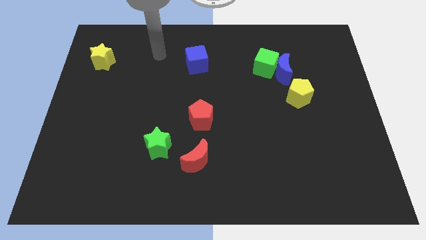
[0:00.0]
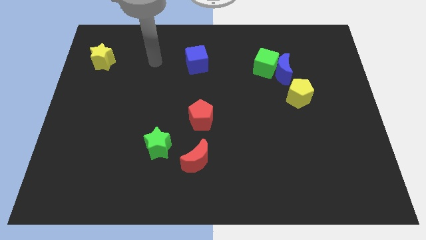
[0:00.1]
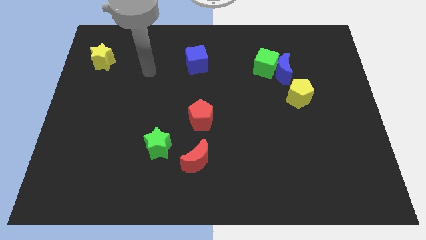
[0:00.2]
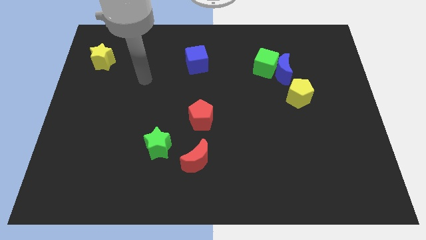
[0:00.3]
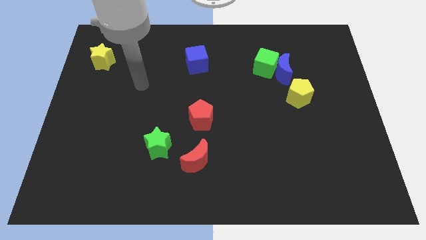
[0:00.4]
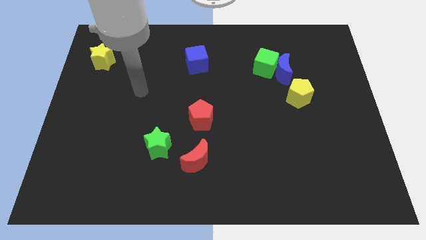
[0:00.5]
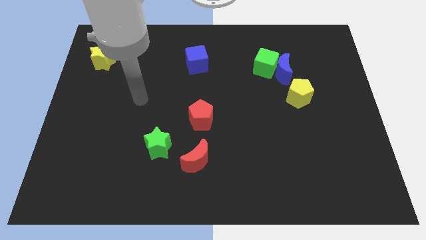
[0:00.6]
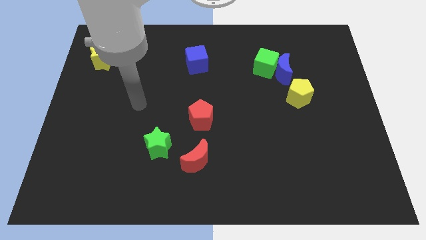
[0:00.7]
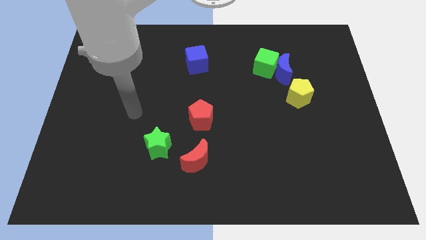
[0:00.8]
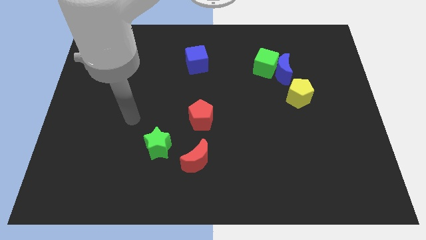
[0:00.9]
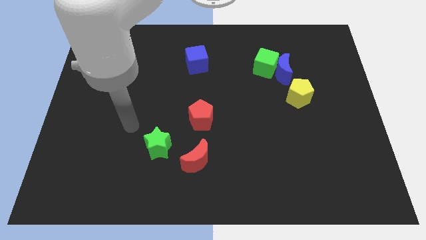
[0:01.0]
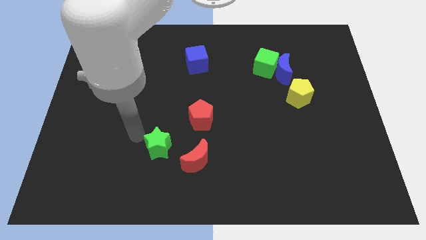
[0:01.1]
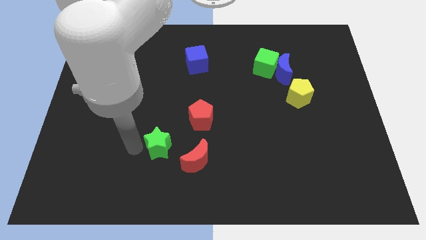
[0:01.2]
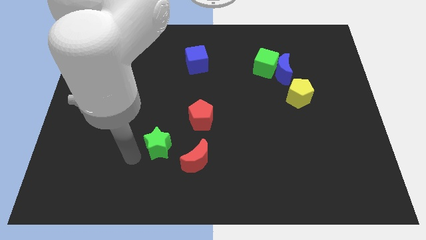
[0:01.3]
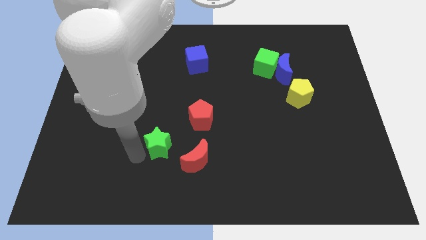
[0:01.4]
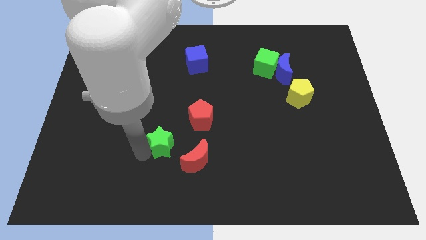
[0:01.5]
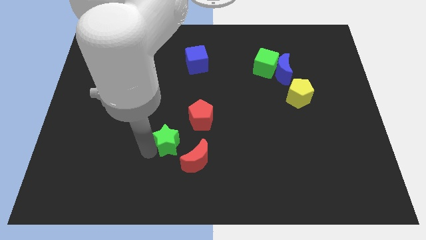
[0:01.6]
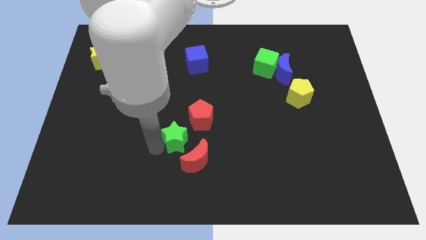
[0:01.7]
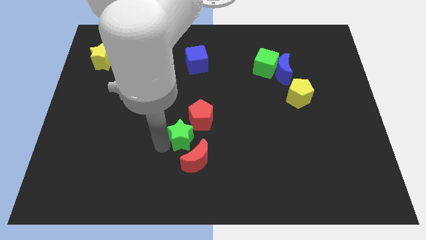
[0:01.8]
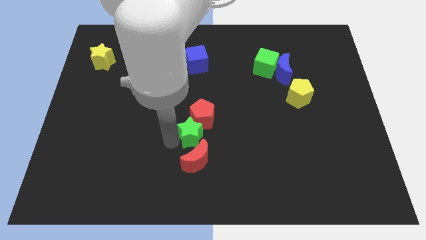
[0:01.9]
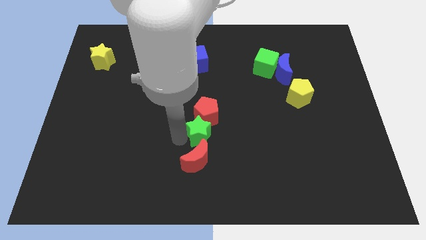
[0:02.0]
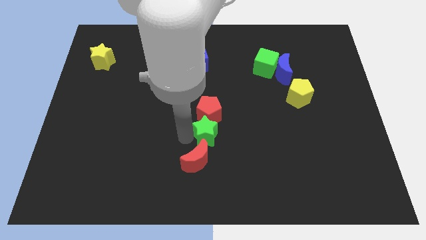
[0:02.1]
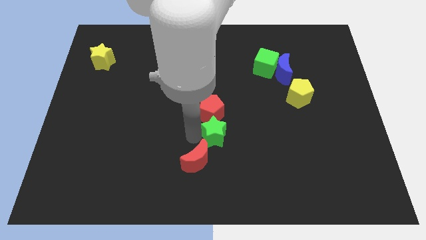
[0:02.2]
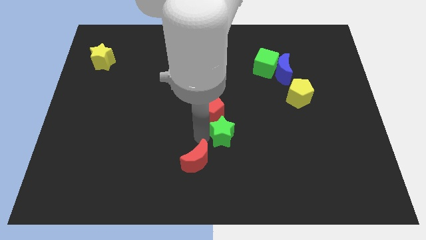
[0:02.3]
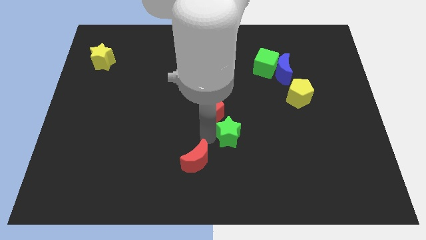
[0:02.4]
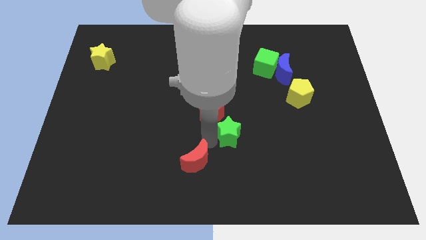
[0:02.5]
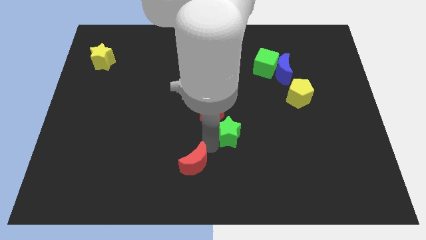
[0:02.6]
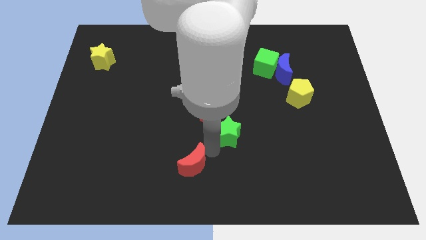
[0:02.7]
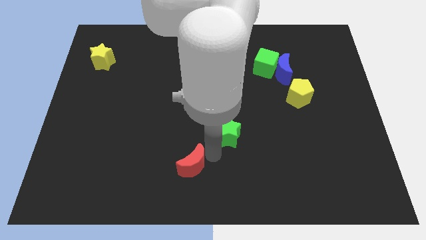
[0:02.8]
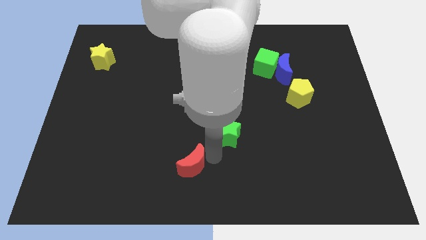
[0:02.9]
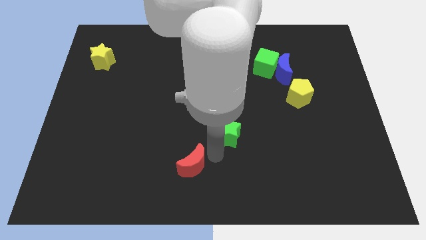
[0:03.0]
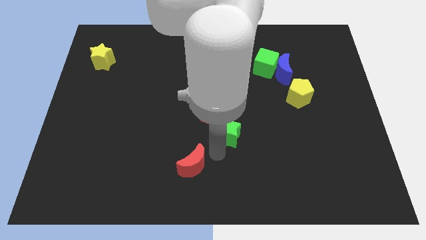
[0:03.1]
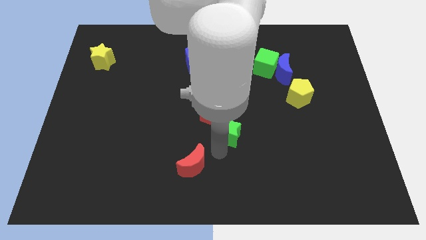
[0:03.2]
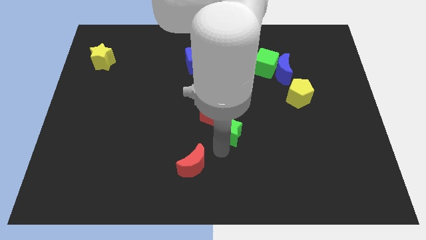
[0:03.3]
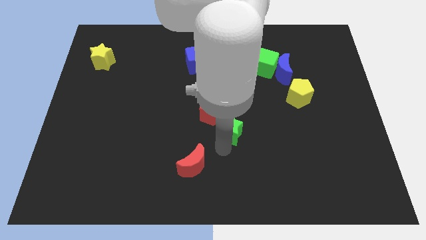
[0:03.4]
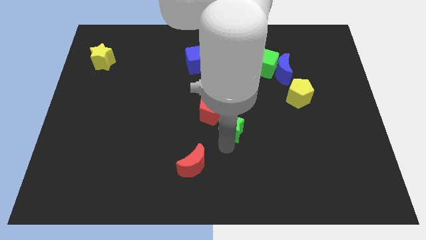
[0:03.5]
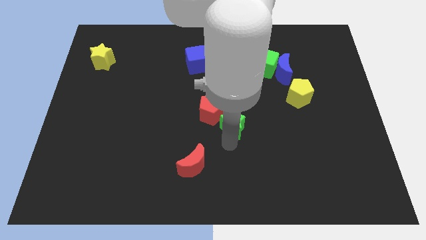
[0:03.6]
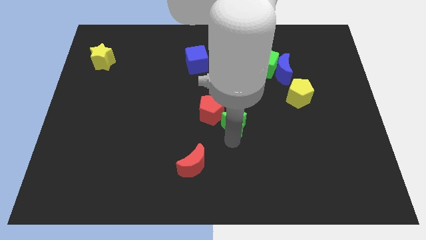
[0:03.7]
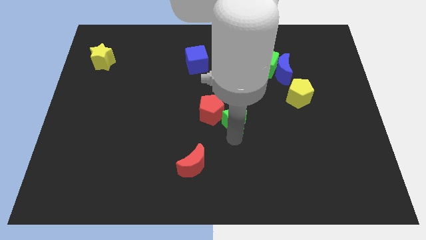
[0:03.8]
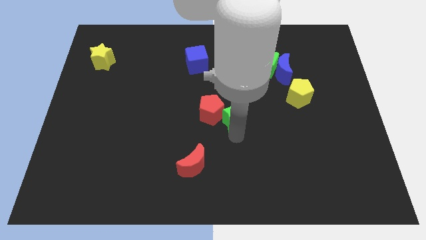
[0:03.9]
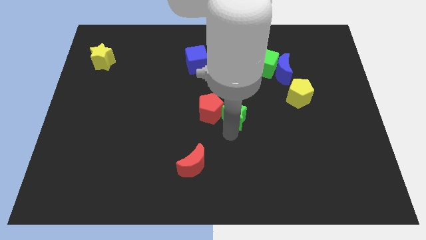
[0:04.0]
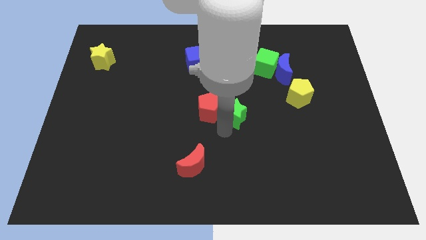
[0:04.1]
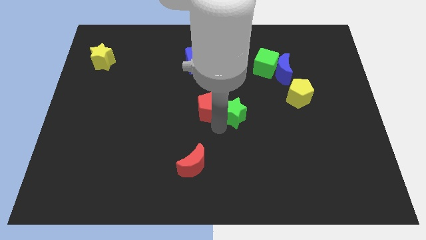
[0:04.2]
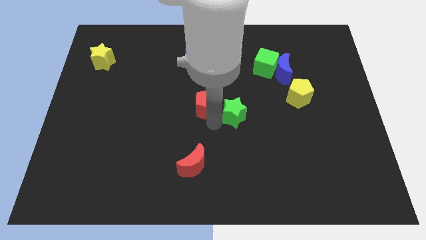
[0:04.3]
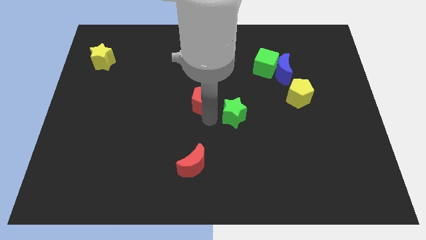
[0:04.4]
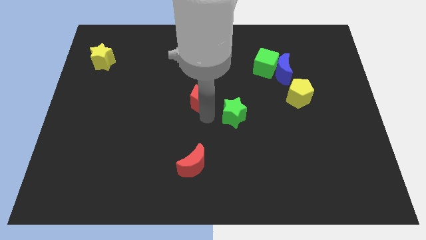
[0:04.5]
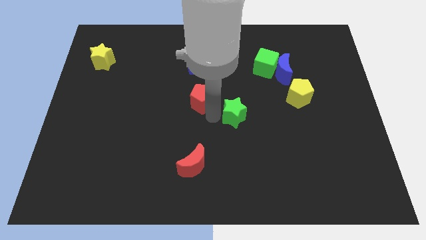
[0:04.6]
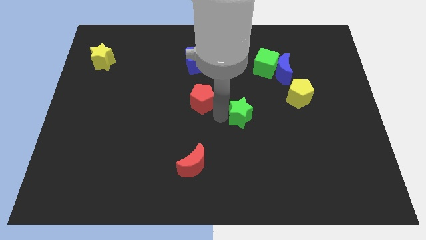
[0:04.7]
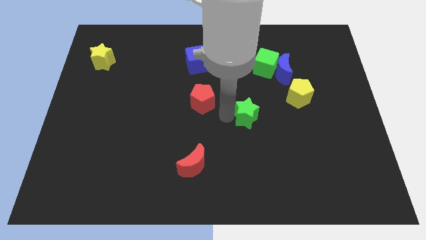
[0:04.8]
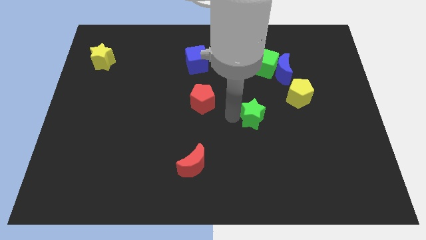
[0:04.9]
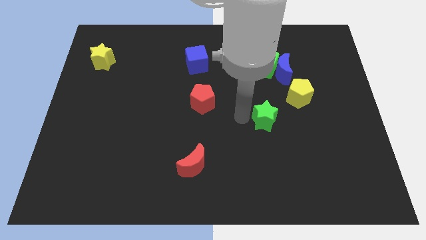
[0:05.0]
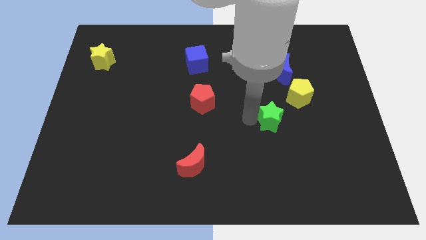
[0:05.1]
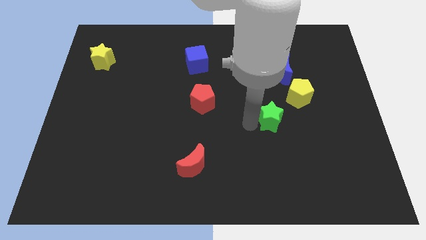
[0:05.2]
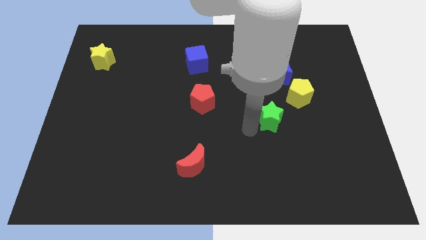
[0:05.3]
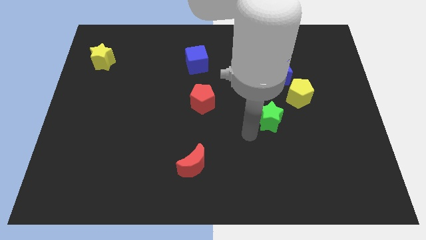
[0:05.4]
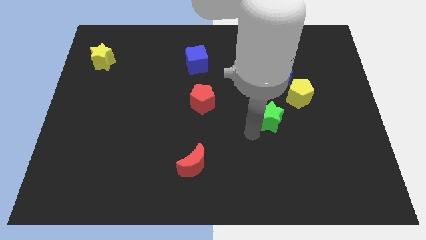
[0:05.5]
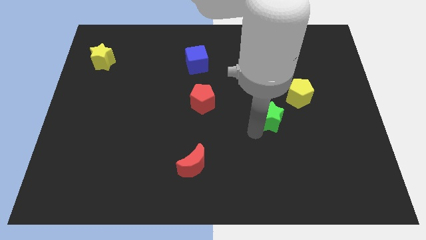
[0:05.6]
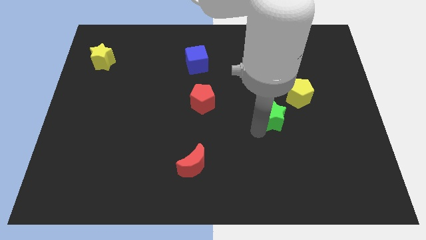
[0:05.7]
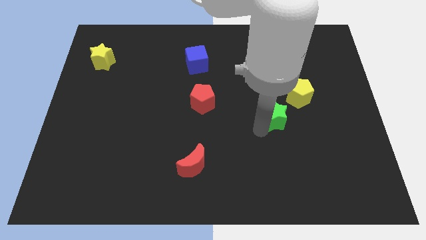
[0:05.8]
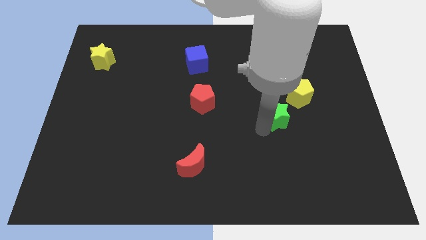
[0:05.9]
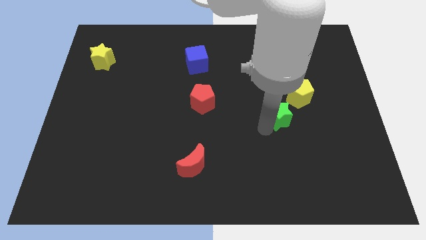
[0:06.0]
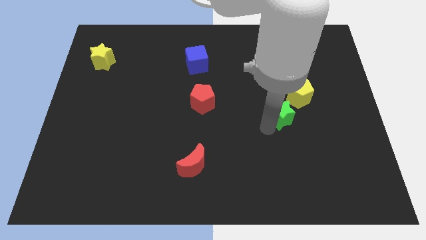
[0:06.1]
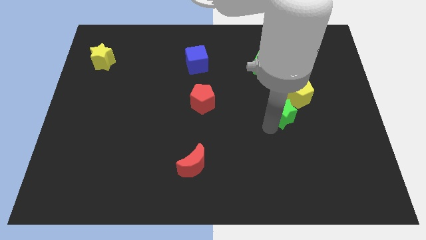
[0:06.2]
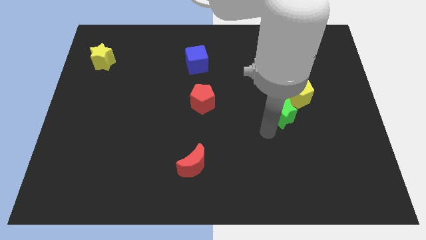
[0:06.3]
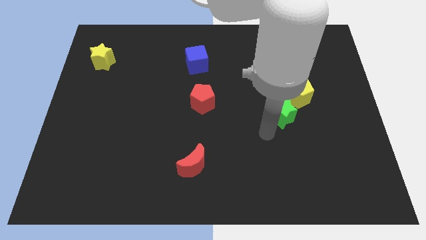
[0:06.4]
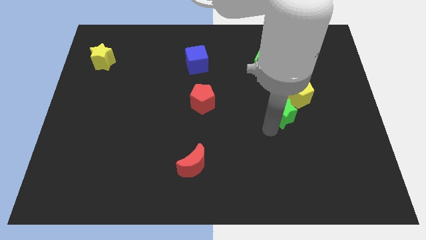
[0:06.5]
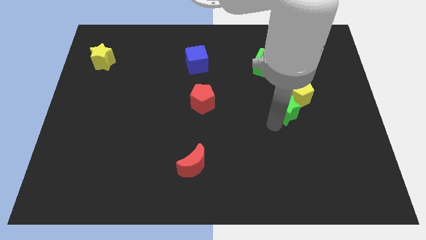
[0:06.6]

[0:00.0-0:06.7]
slide the green star close to the yellow pentagon
